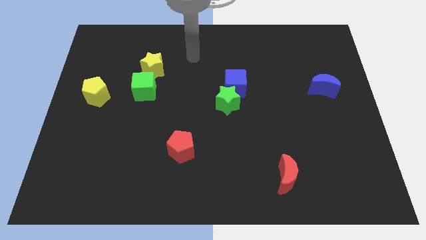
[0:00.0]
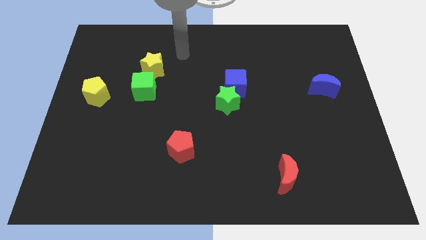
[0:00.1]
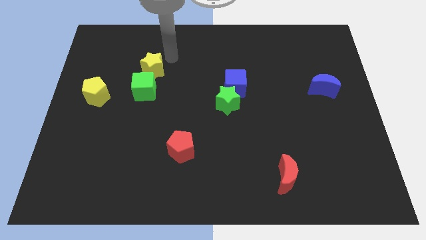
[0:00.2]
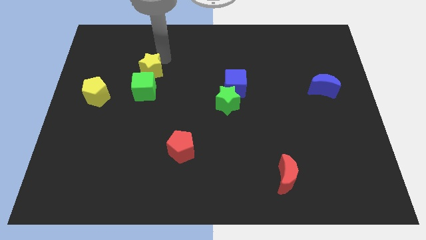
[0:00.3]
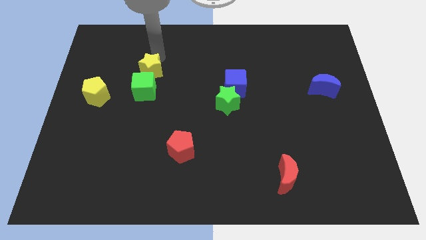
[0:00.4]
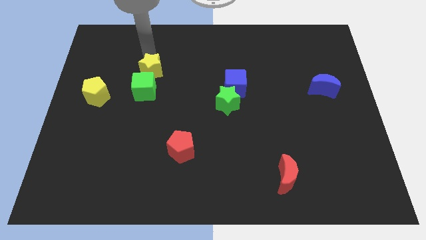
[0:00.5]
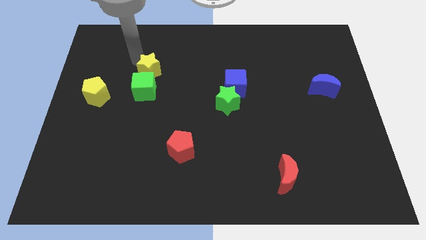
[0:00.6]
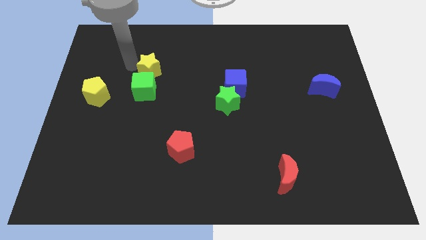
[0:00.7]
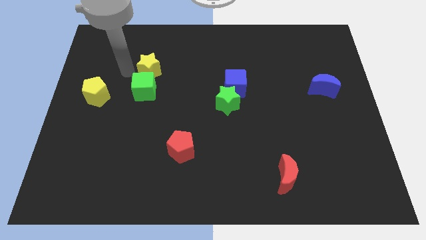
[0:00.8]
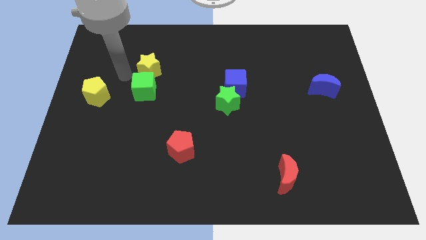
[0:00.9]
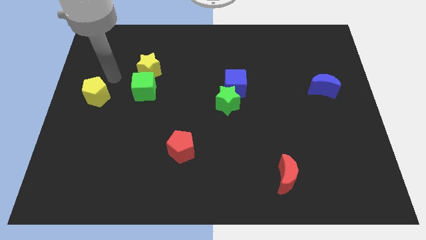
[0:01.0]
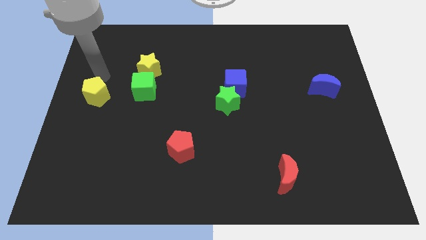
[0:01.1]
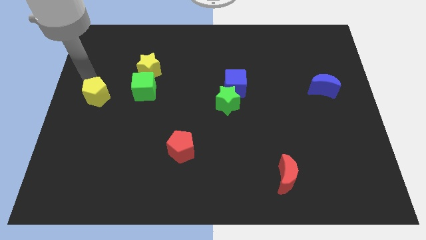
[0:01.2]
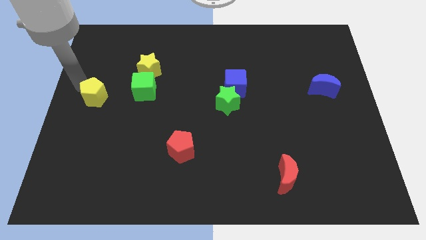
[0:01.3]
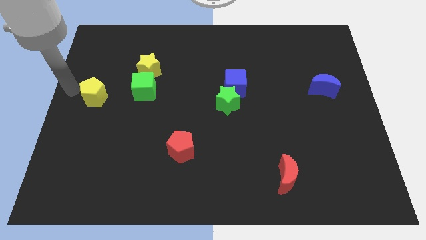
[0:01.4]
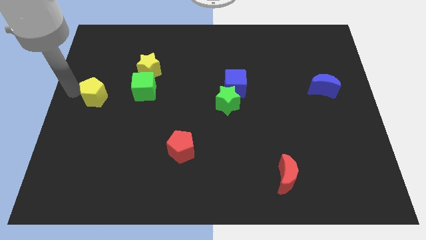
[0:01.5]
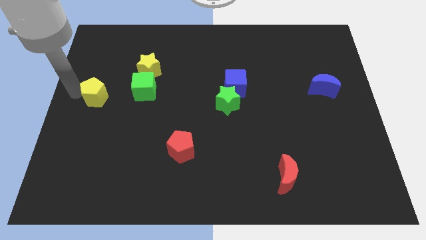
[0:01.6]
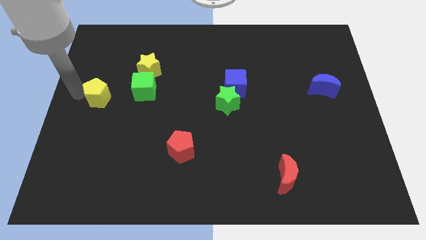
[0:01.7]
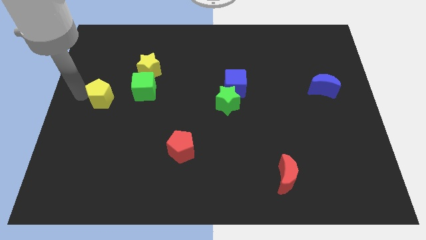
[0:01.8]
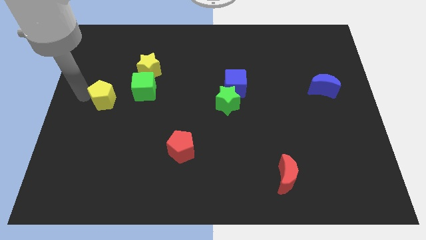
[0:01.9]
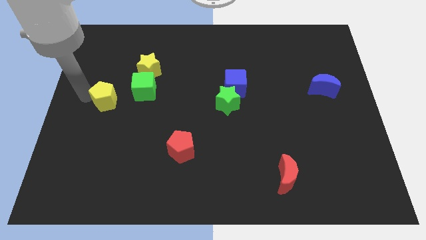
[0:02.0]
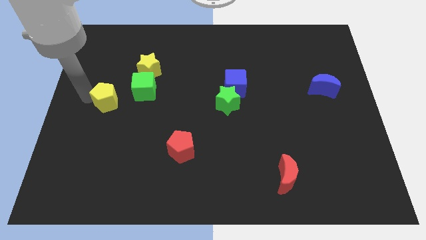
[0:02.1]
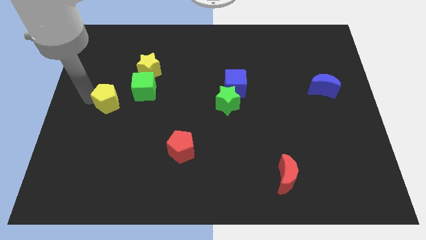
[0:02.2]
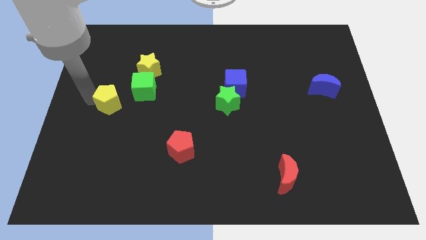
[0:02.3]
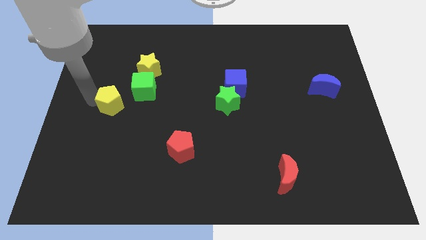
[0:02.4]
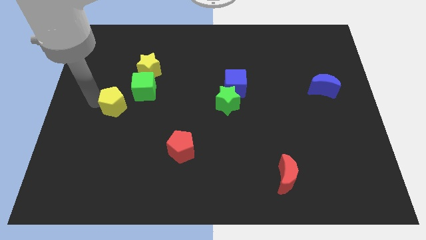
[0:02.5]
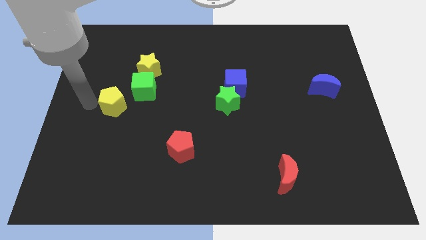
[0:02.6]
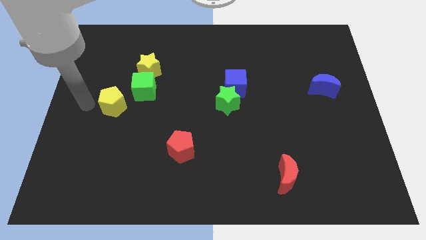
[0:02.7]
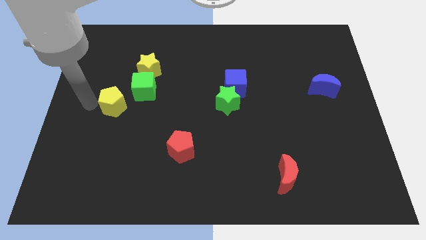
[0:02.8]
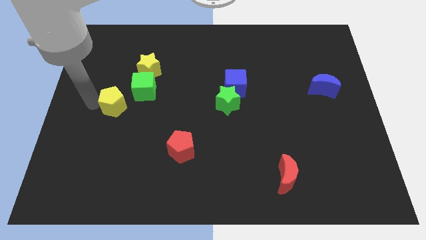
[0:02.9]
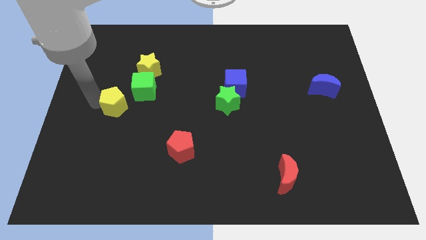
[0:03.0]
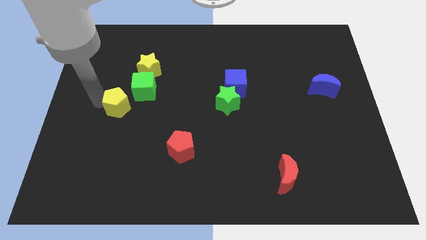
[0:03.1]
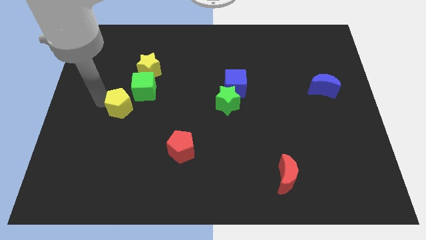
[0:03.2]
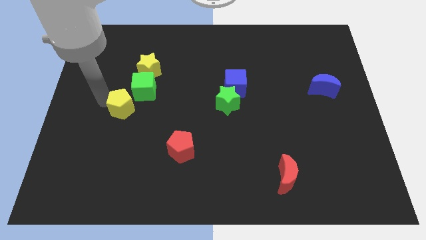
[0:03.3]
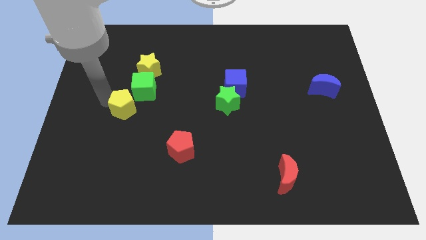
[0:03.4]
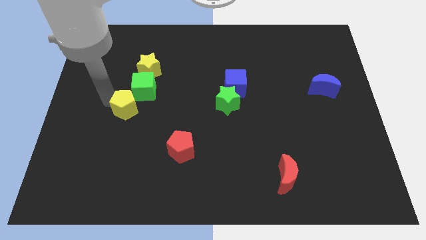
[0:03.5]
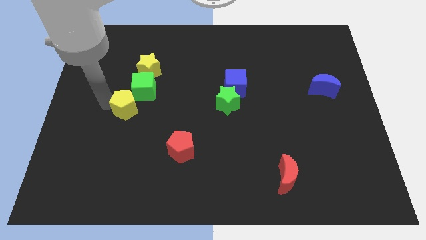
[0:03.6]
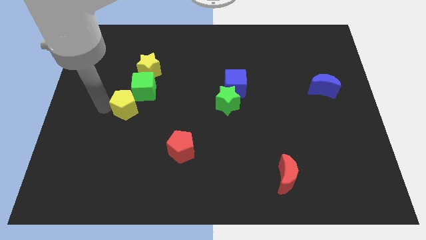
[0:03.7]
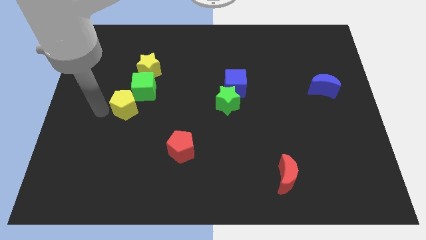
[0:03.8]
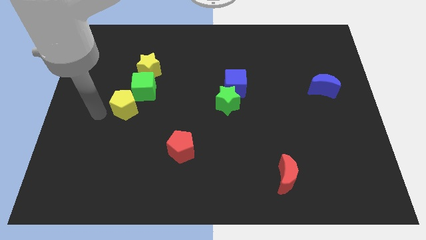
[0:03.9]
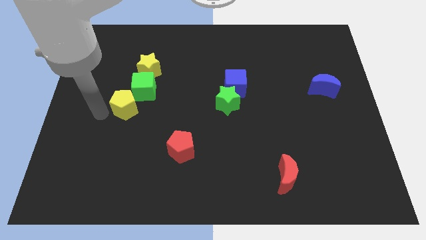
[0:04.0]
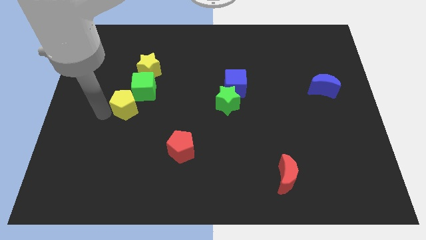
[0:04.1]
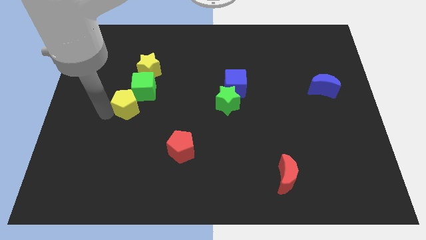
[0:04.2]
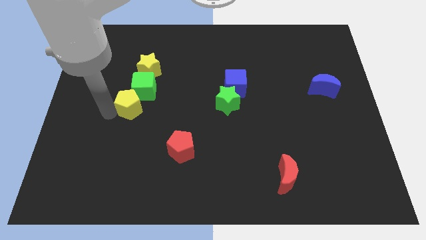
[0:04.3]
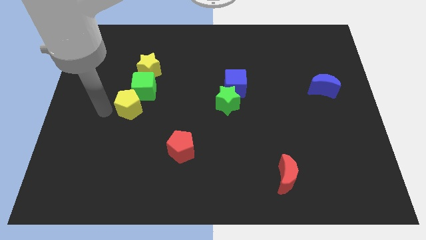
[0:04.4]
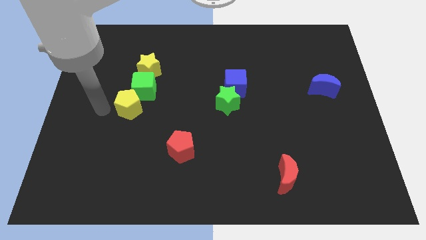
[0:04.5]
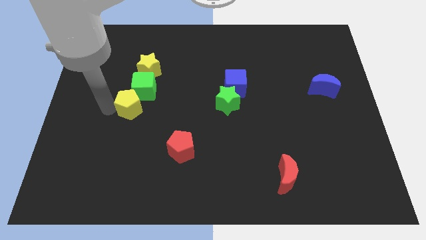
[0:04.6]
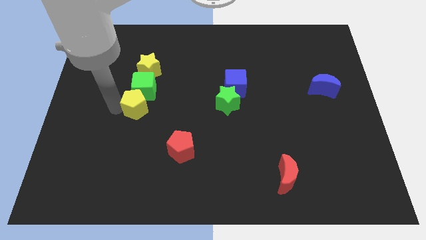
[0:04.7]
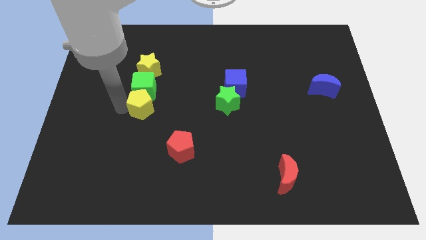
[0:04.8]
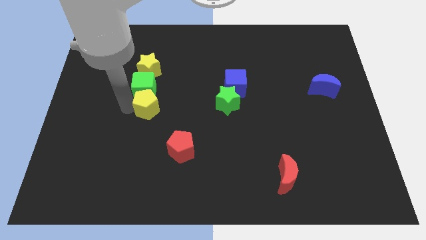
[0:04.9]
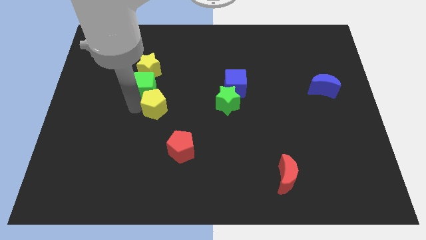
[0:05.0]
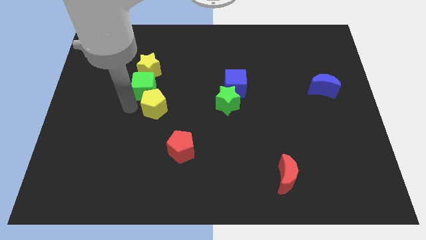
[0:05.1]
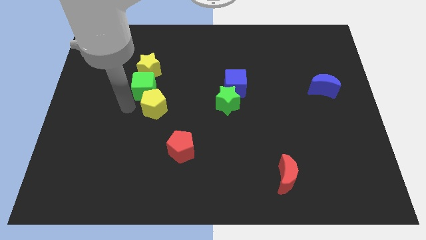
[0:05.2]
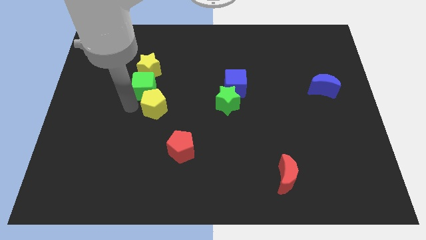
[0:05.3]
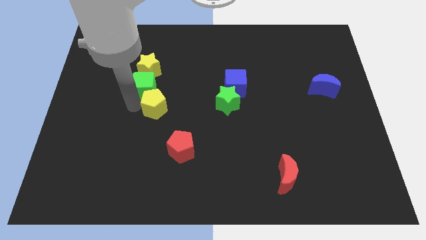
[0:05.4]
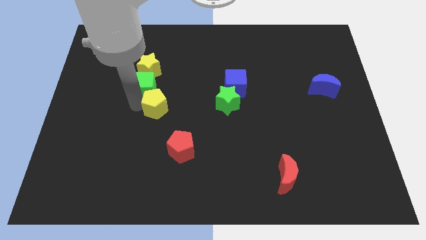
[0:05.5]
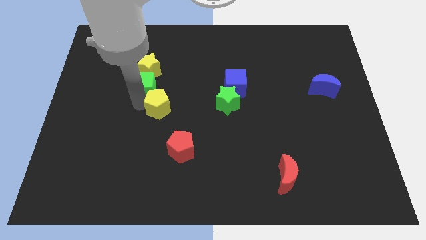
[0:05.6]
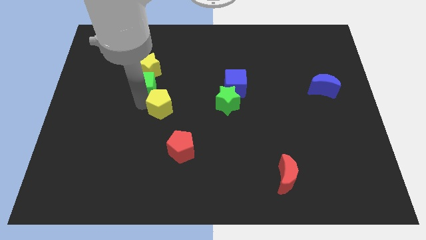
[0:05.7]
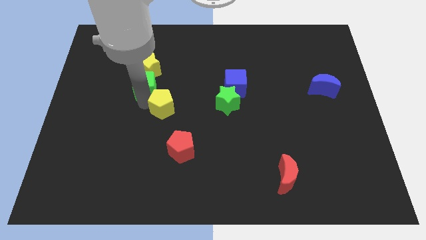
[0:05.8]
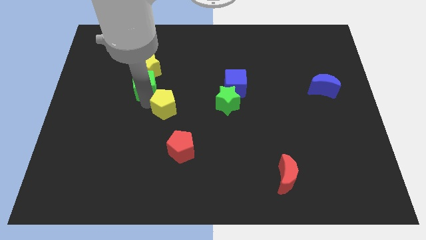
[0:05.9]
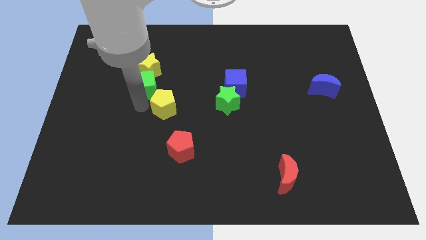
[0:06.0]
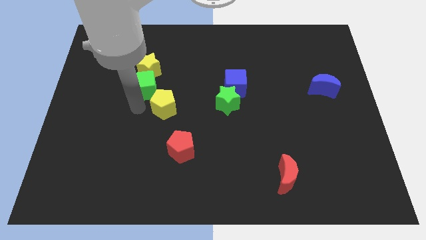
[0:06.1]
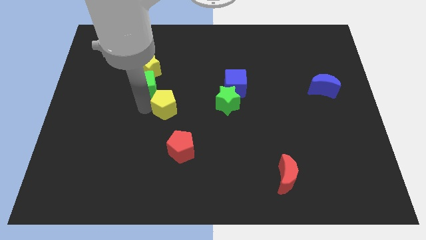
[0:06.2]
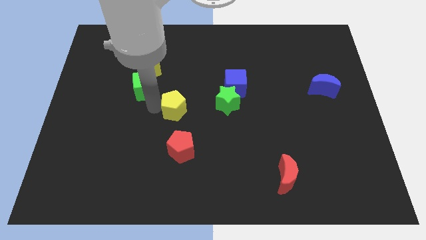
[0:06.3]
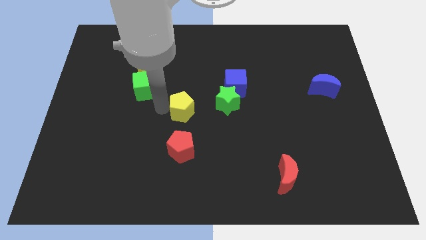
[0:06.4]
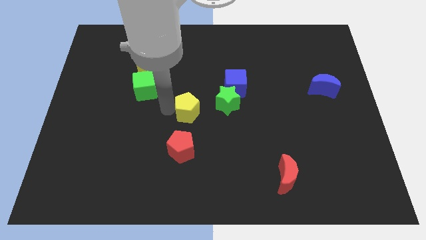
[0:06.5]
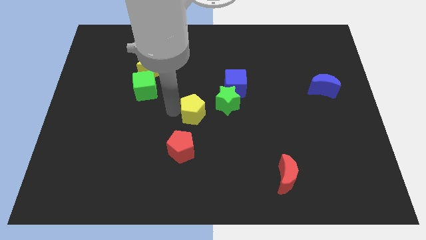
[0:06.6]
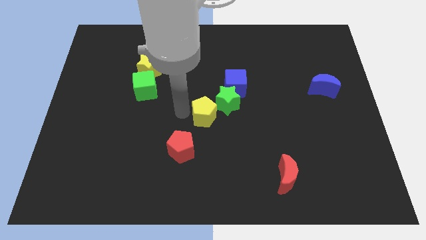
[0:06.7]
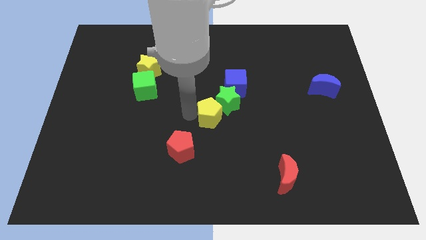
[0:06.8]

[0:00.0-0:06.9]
put the yellow pentagon towards the green star
